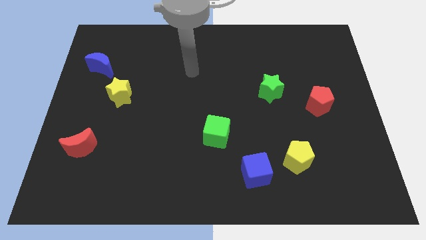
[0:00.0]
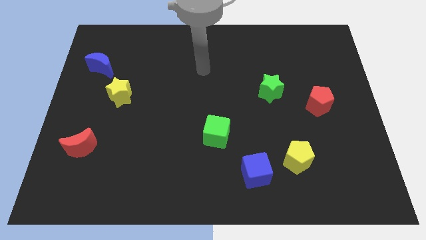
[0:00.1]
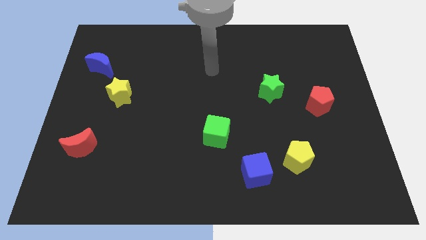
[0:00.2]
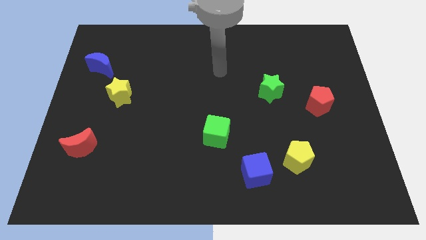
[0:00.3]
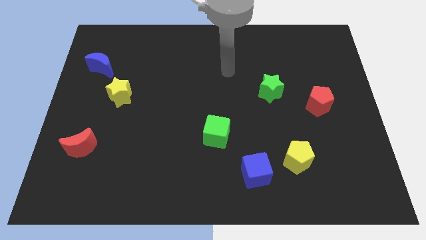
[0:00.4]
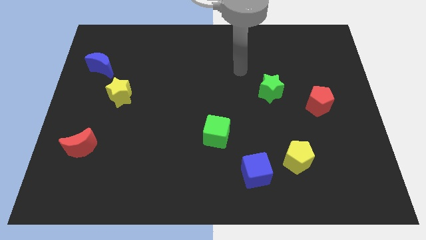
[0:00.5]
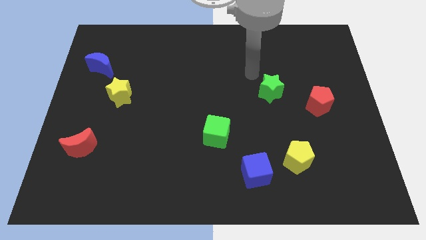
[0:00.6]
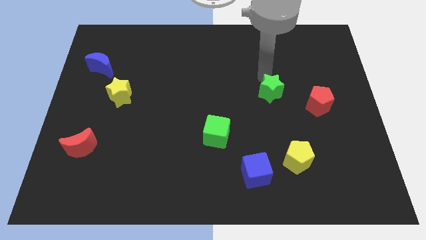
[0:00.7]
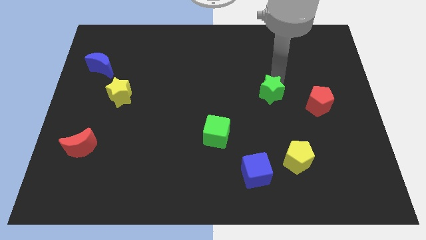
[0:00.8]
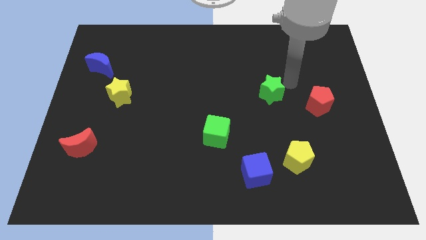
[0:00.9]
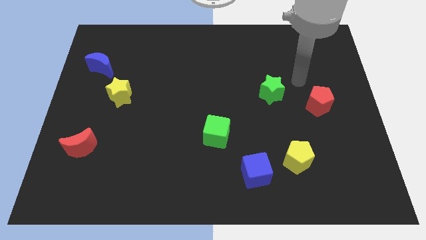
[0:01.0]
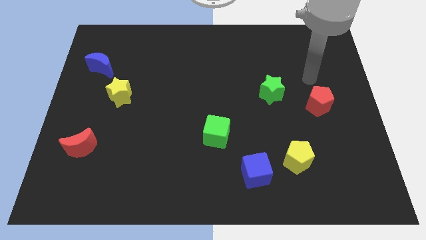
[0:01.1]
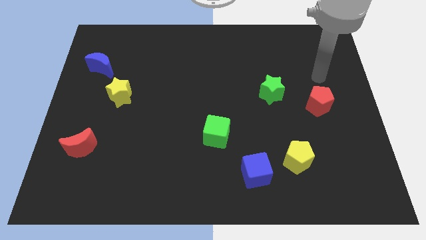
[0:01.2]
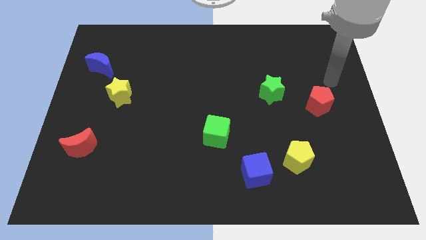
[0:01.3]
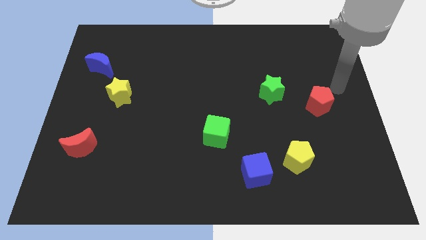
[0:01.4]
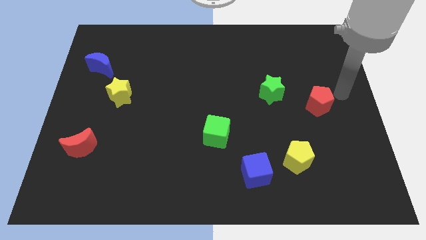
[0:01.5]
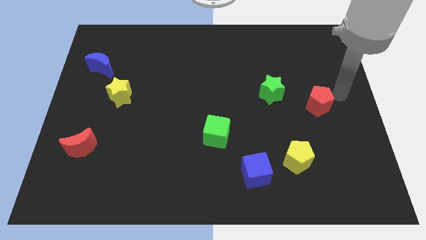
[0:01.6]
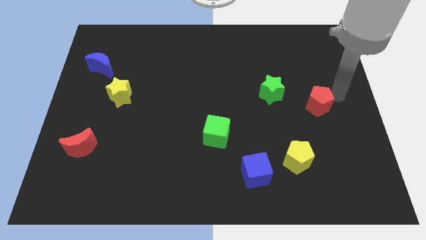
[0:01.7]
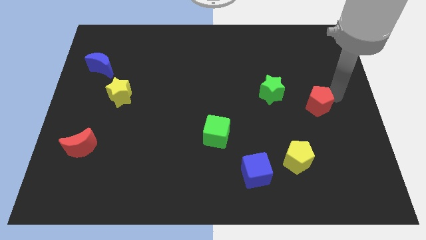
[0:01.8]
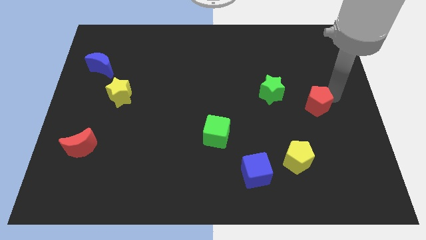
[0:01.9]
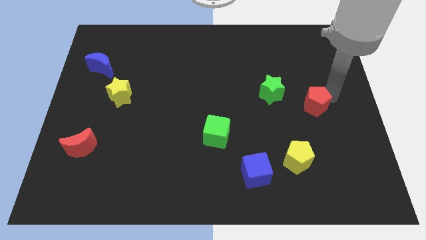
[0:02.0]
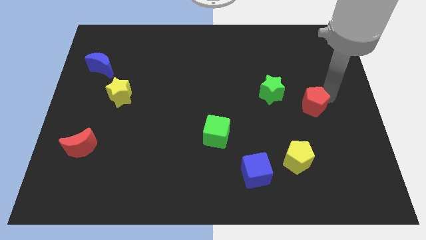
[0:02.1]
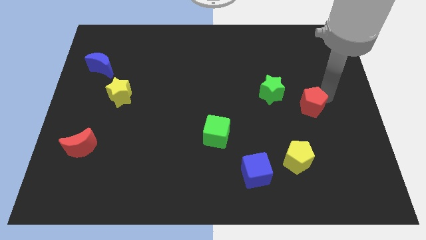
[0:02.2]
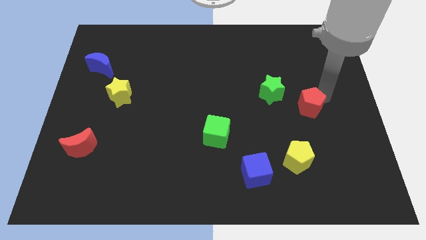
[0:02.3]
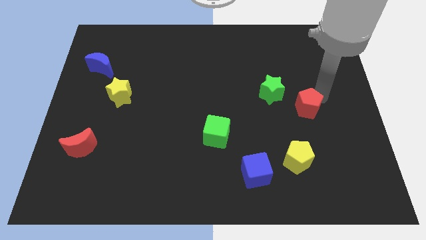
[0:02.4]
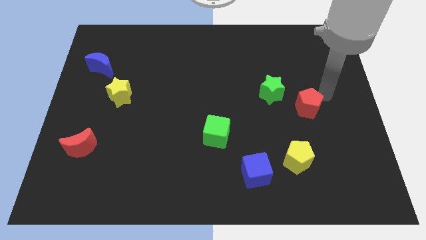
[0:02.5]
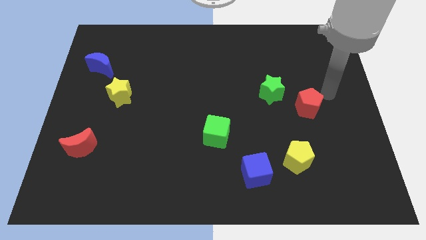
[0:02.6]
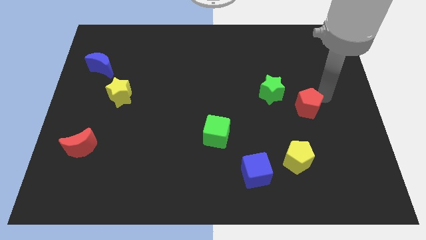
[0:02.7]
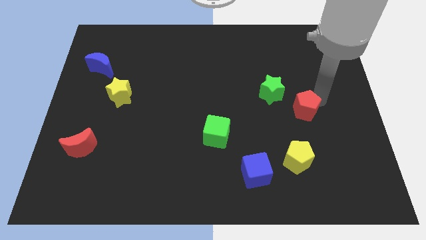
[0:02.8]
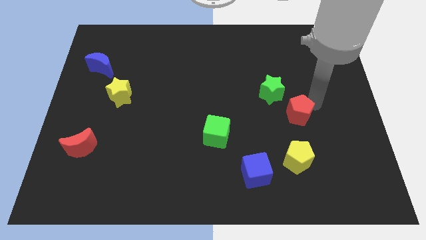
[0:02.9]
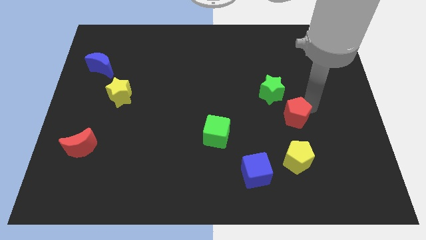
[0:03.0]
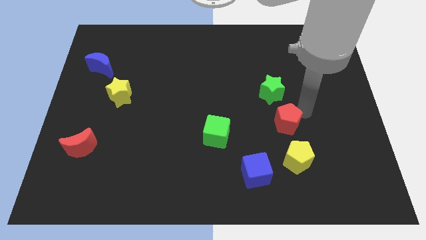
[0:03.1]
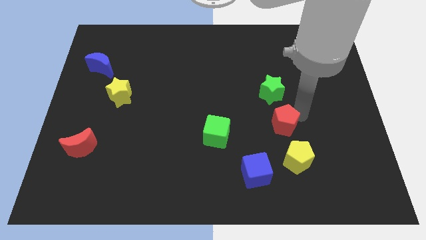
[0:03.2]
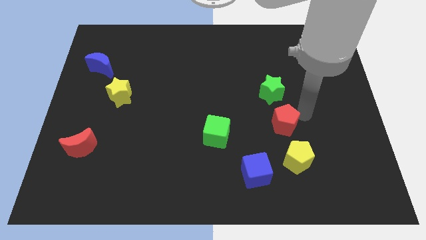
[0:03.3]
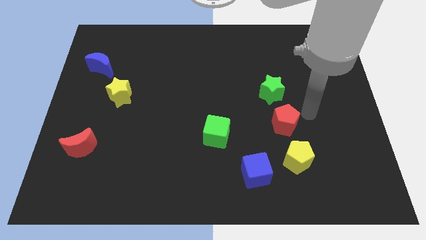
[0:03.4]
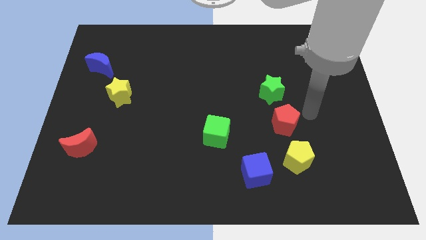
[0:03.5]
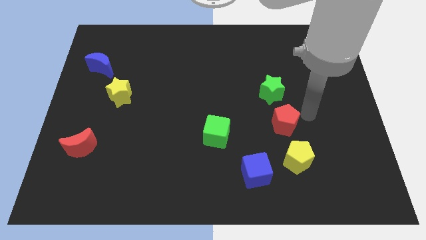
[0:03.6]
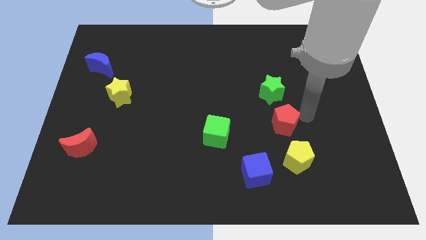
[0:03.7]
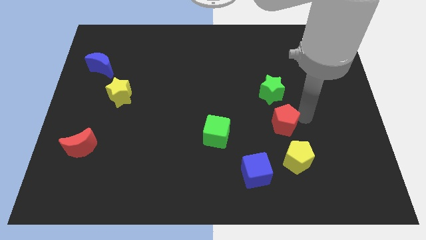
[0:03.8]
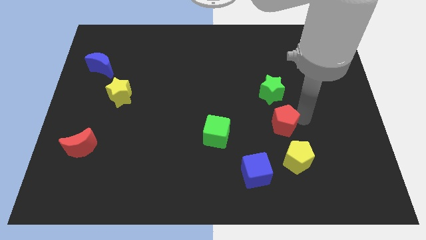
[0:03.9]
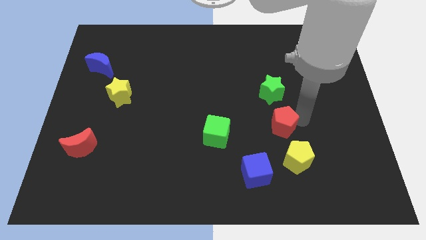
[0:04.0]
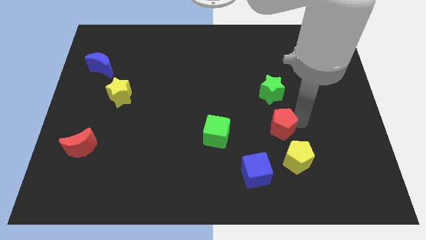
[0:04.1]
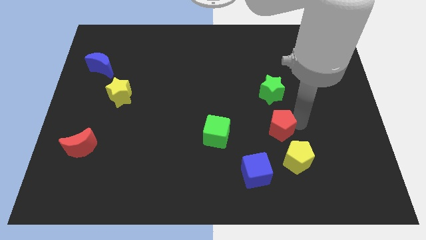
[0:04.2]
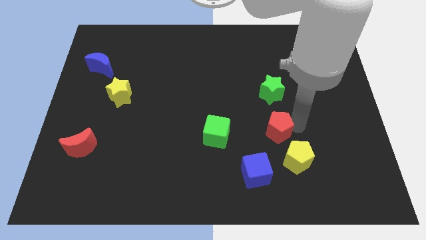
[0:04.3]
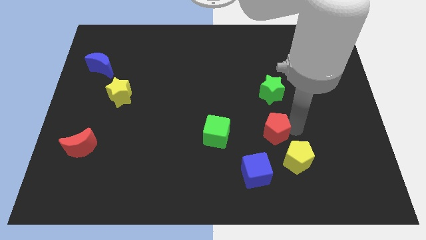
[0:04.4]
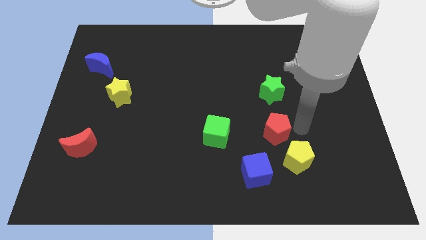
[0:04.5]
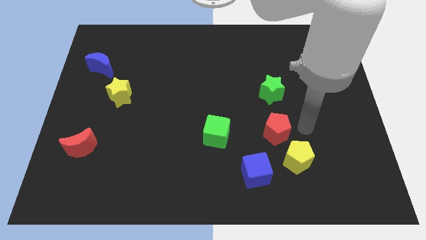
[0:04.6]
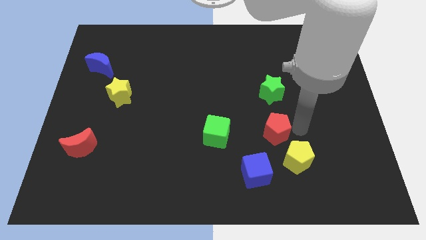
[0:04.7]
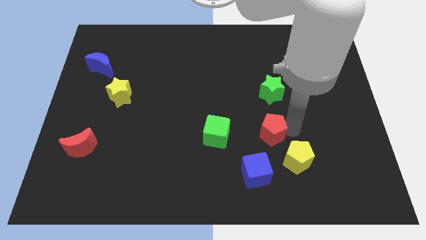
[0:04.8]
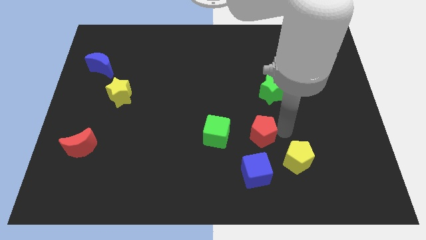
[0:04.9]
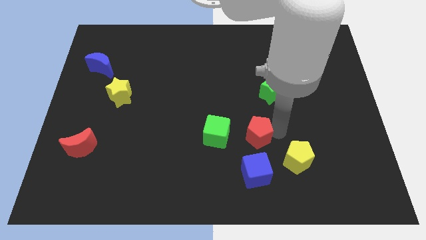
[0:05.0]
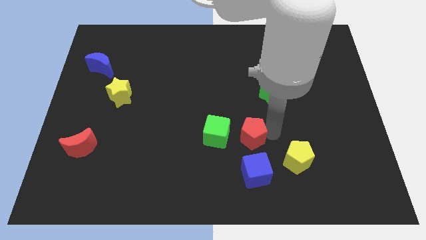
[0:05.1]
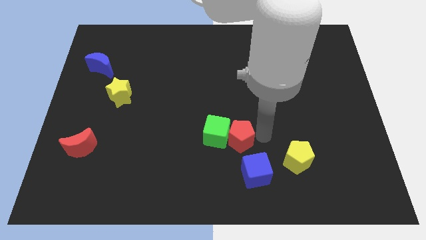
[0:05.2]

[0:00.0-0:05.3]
move the red pentagon towards the green cube

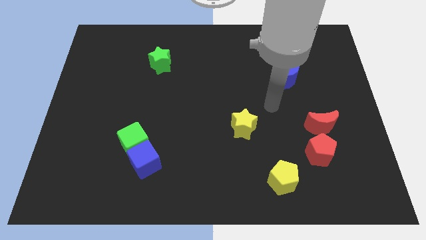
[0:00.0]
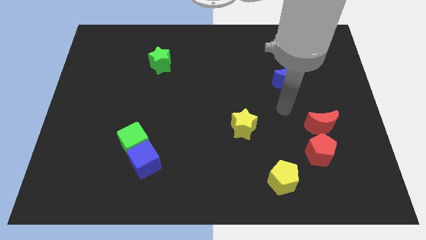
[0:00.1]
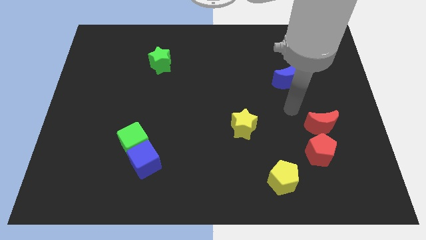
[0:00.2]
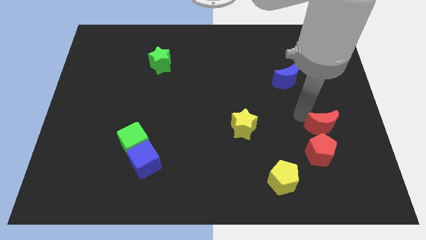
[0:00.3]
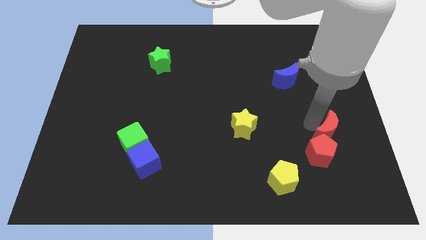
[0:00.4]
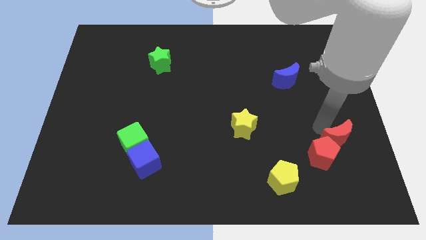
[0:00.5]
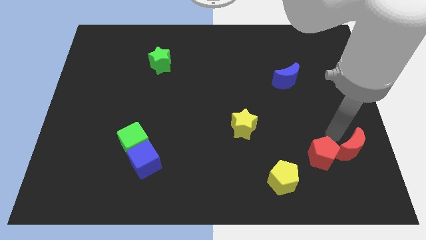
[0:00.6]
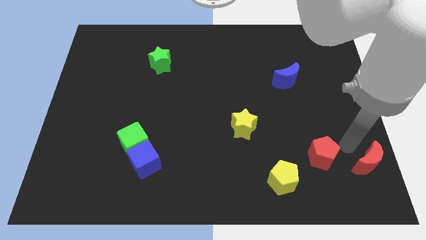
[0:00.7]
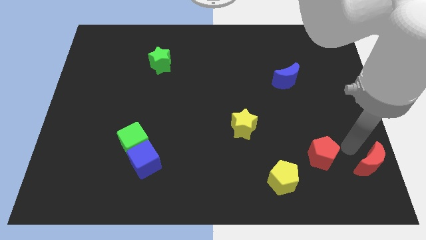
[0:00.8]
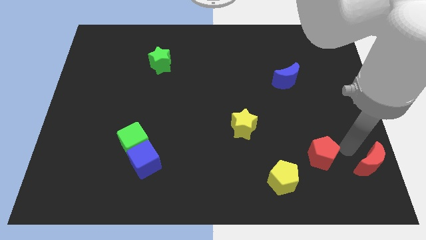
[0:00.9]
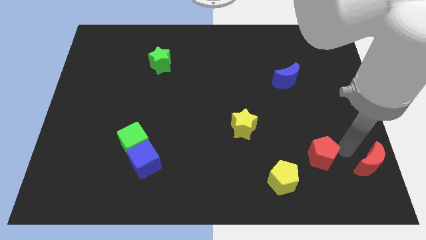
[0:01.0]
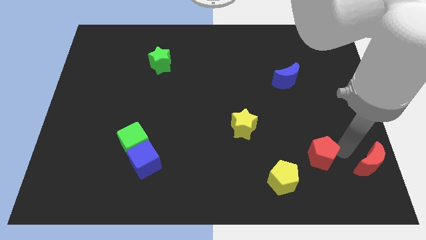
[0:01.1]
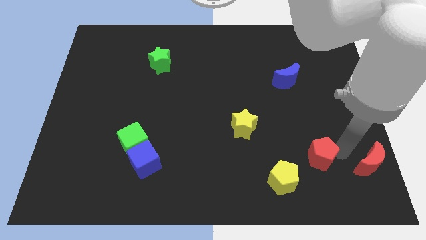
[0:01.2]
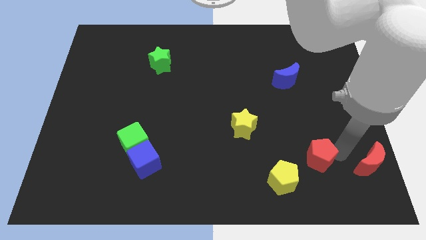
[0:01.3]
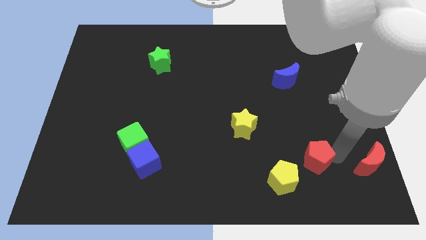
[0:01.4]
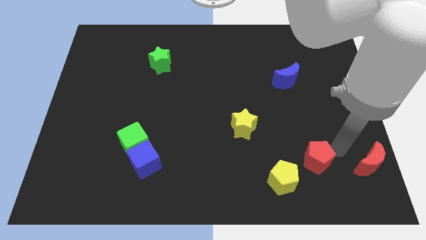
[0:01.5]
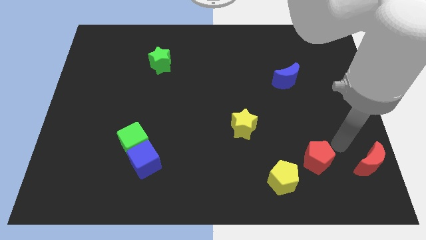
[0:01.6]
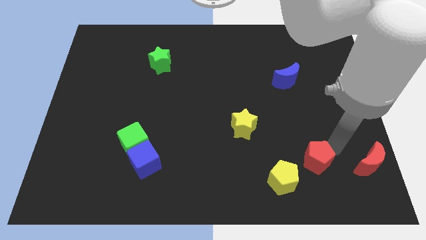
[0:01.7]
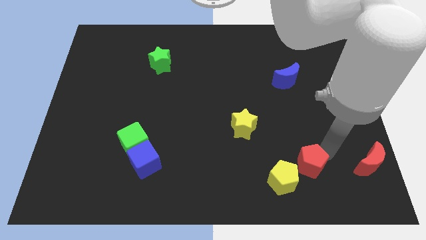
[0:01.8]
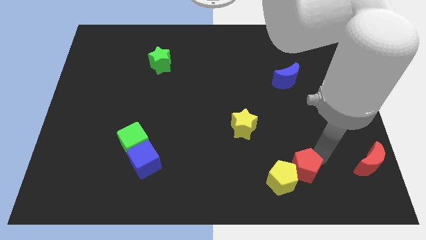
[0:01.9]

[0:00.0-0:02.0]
slide the red pentagon next to the yellow pentagon
